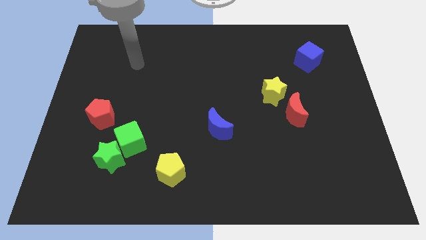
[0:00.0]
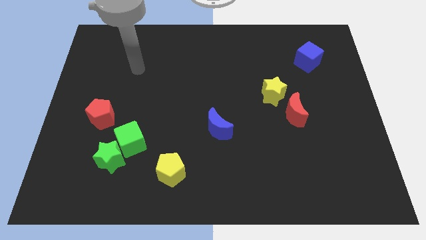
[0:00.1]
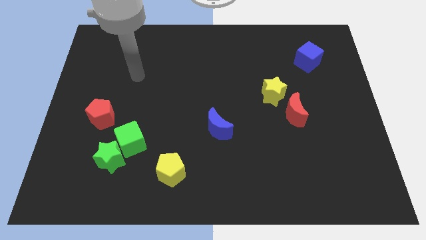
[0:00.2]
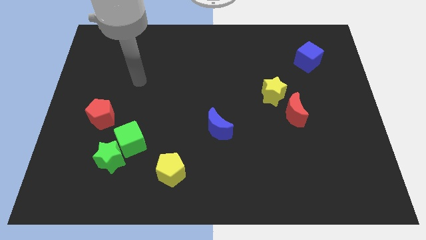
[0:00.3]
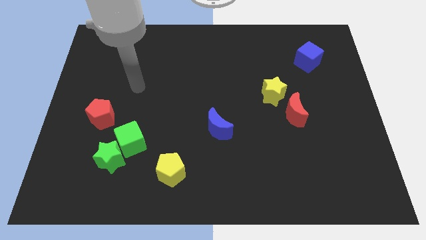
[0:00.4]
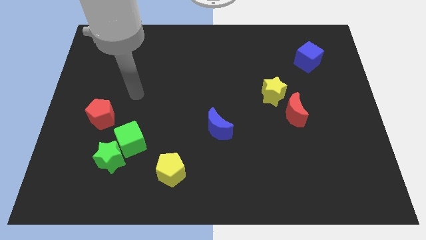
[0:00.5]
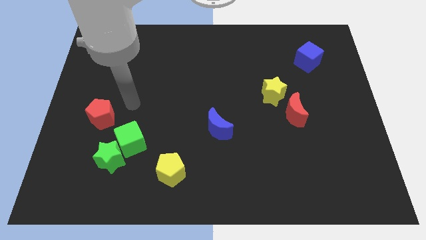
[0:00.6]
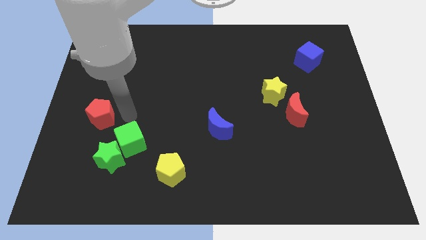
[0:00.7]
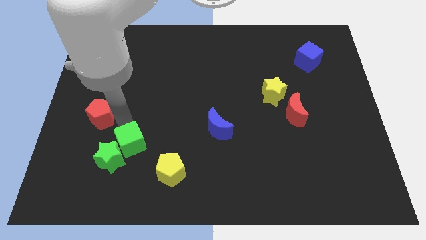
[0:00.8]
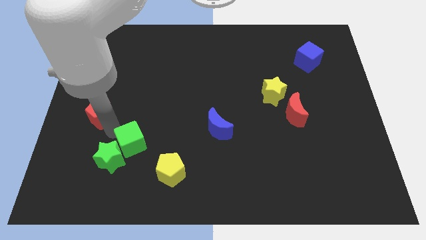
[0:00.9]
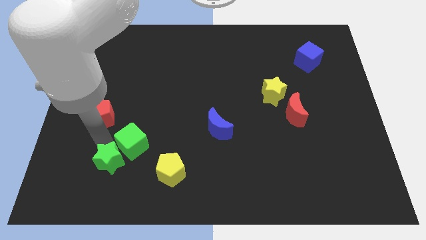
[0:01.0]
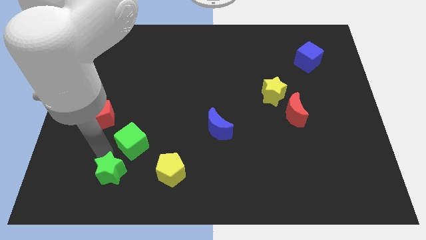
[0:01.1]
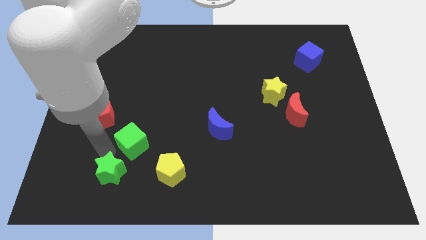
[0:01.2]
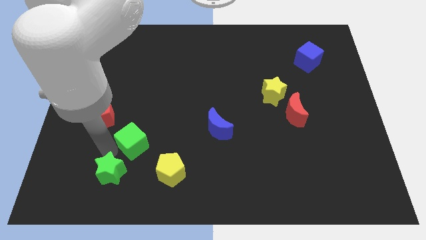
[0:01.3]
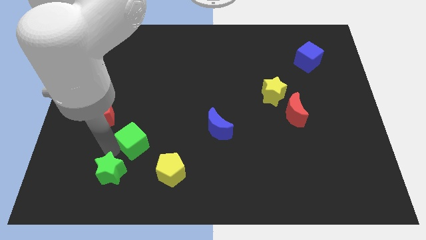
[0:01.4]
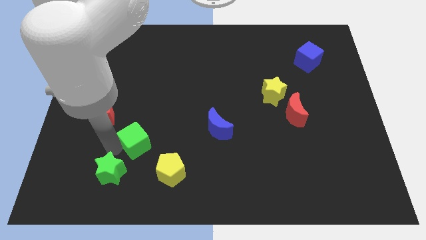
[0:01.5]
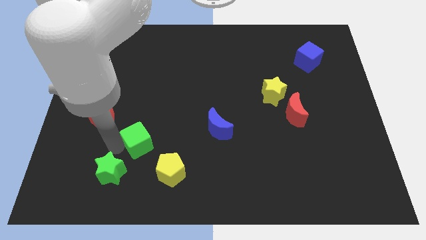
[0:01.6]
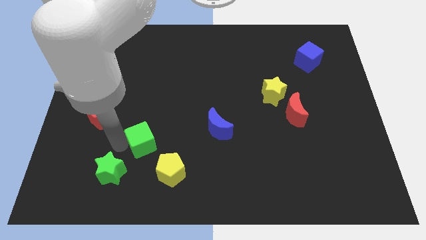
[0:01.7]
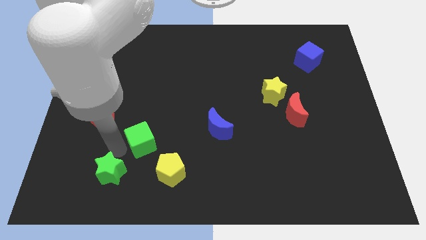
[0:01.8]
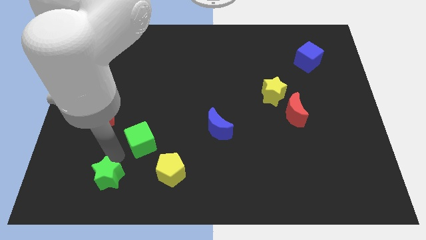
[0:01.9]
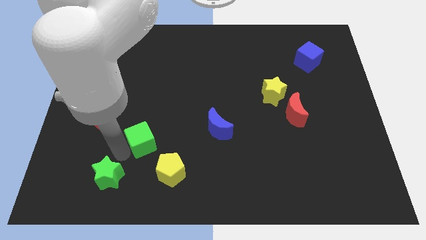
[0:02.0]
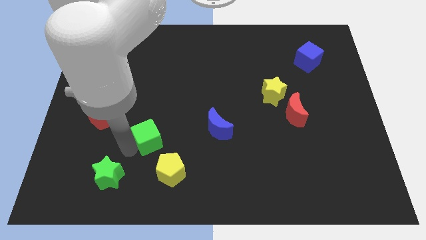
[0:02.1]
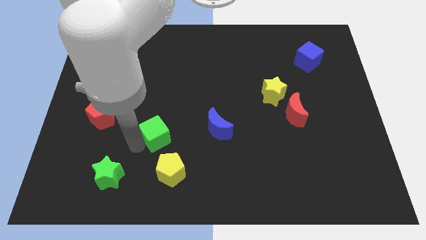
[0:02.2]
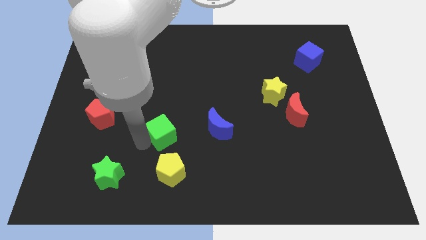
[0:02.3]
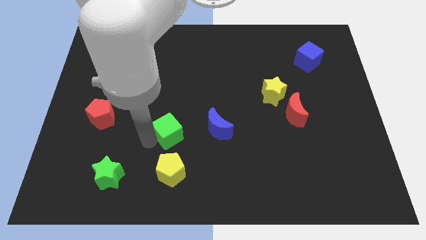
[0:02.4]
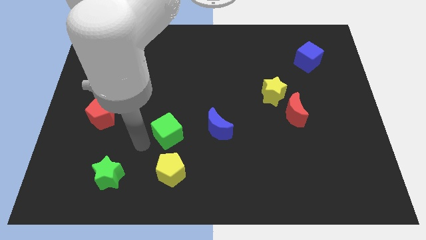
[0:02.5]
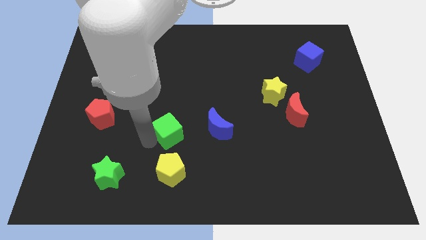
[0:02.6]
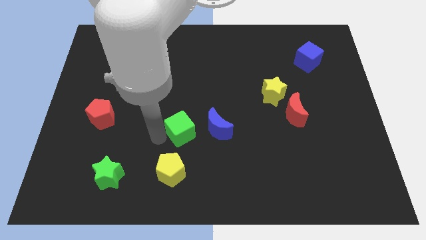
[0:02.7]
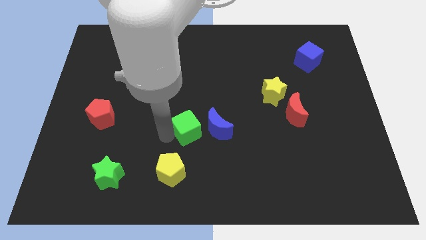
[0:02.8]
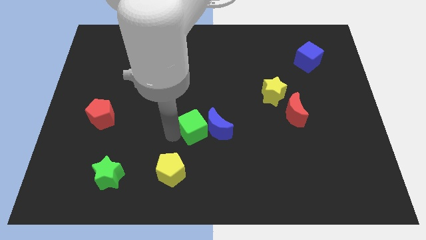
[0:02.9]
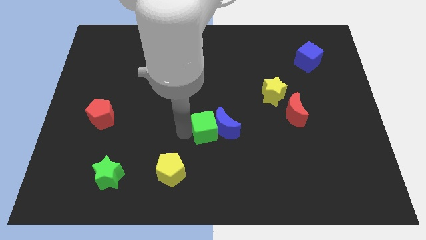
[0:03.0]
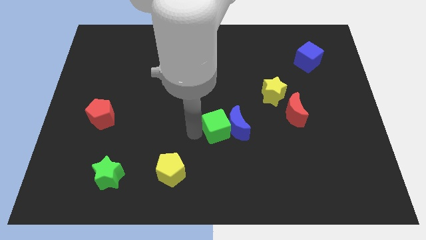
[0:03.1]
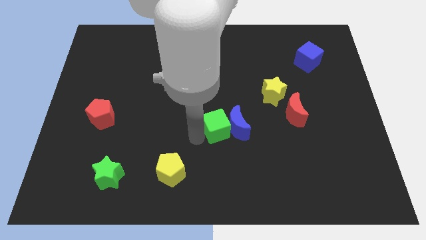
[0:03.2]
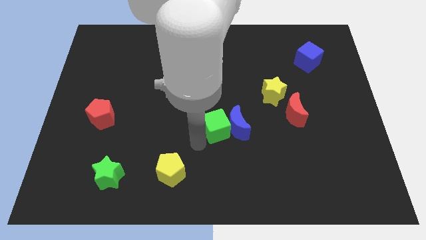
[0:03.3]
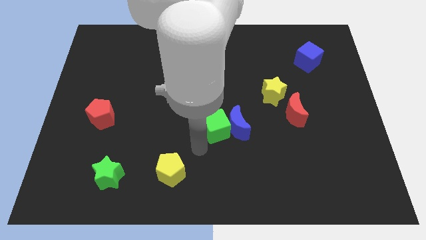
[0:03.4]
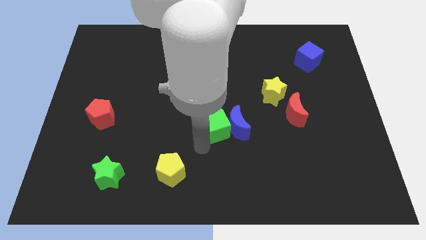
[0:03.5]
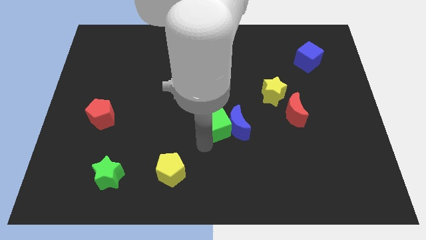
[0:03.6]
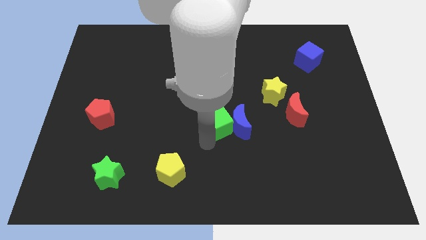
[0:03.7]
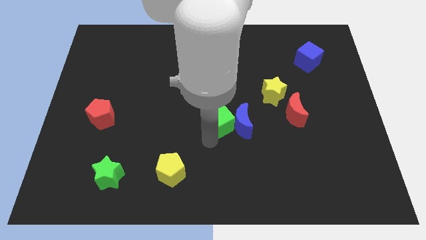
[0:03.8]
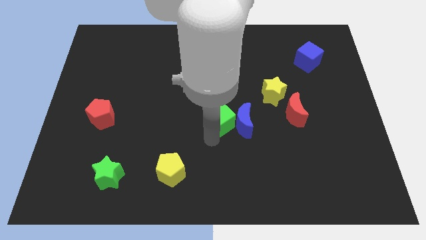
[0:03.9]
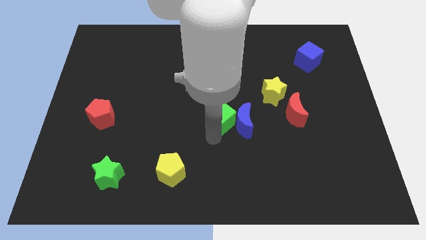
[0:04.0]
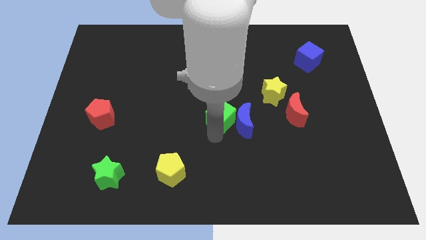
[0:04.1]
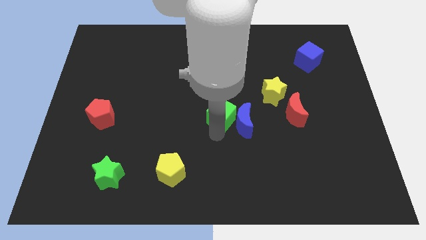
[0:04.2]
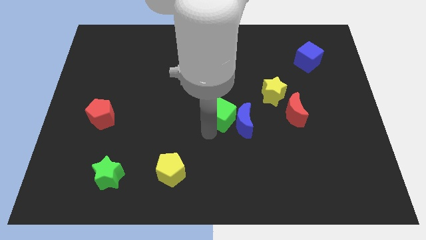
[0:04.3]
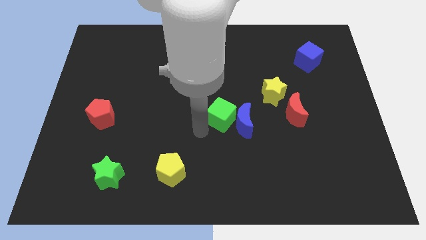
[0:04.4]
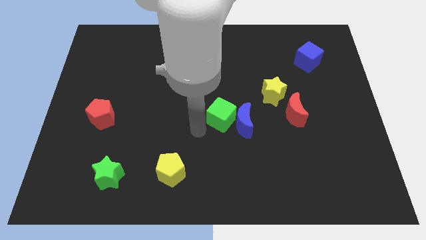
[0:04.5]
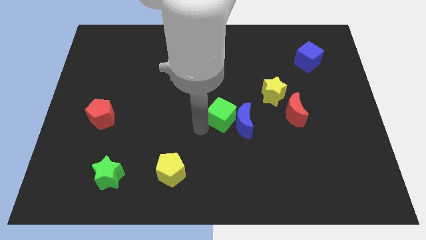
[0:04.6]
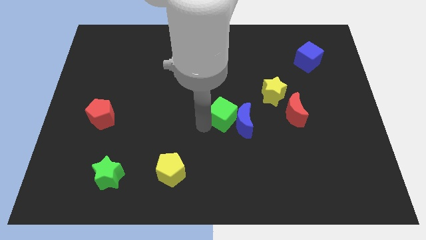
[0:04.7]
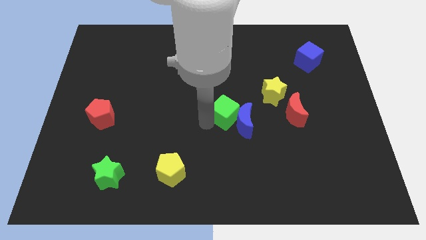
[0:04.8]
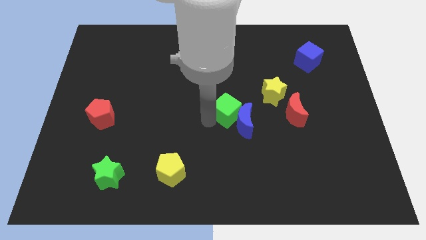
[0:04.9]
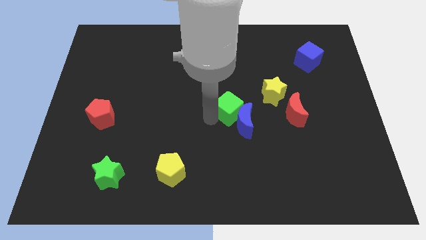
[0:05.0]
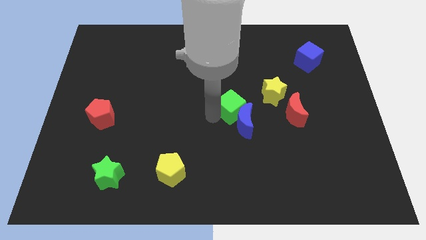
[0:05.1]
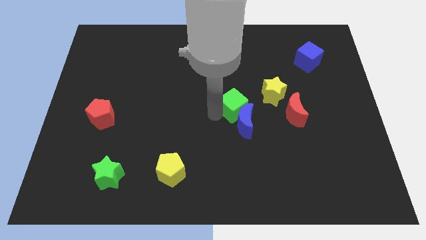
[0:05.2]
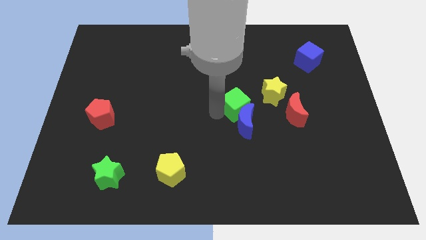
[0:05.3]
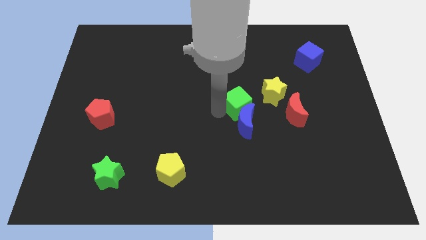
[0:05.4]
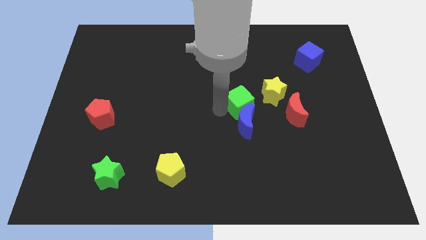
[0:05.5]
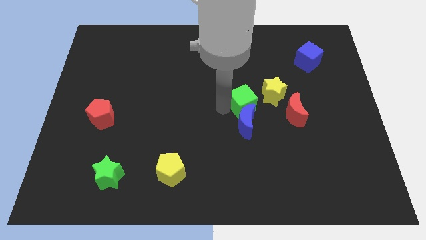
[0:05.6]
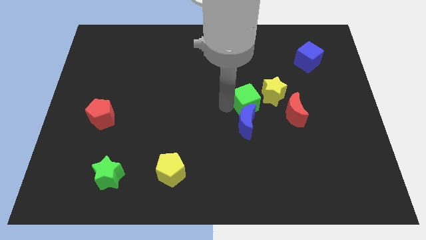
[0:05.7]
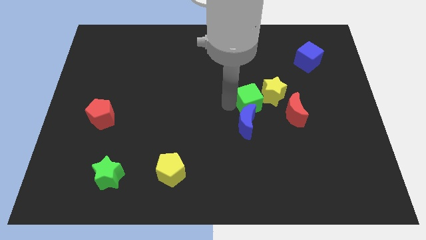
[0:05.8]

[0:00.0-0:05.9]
move the green cube to the yellow star

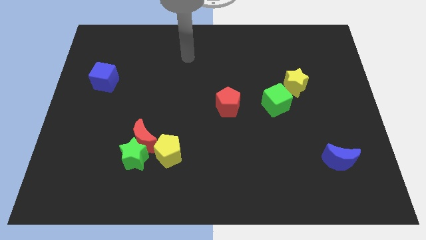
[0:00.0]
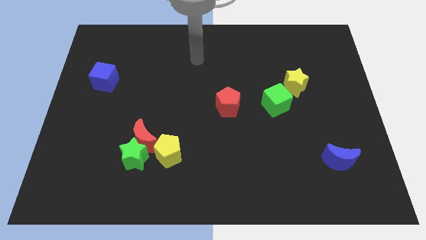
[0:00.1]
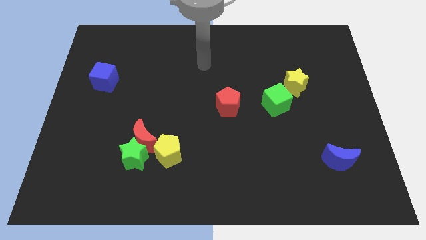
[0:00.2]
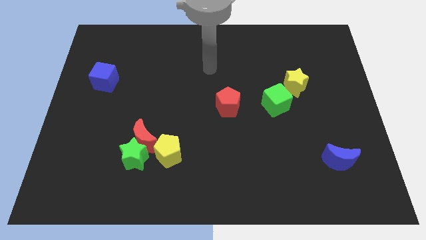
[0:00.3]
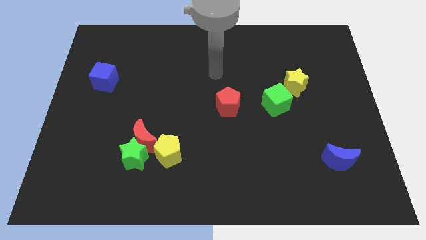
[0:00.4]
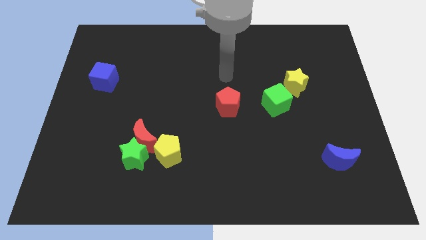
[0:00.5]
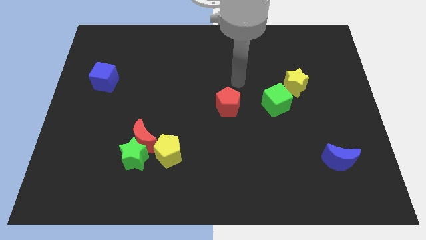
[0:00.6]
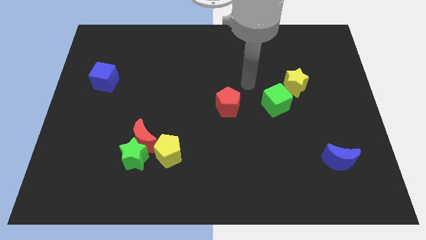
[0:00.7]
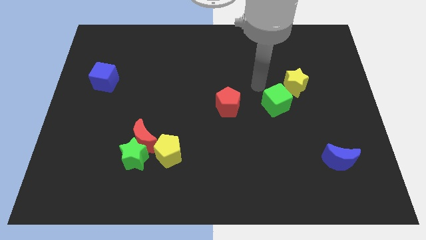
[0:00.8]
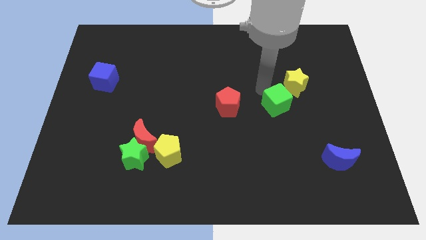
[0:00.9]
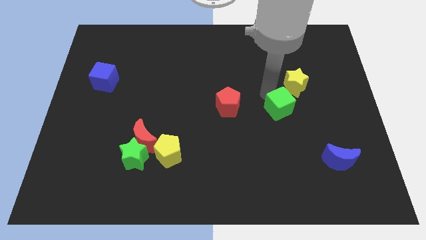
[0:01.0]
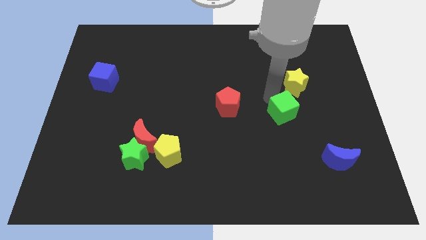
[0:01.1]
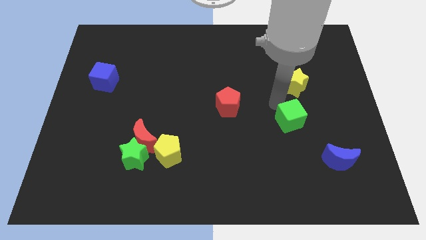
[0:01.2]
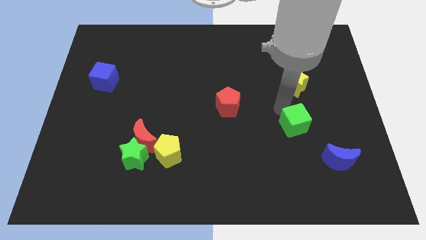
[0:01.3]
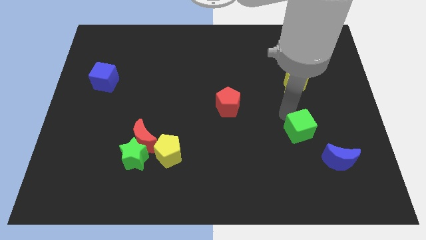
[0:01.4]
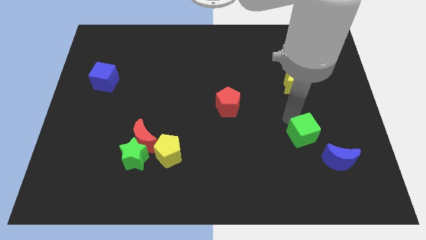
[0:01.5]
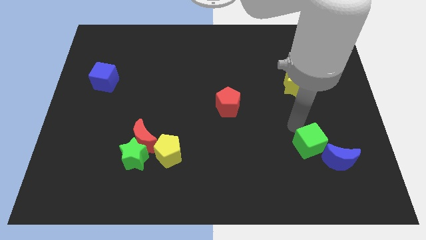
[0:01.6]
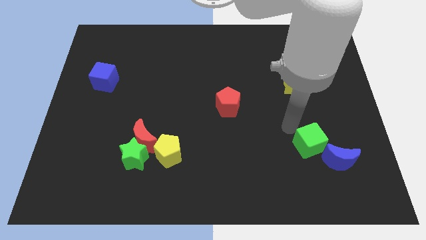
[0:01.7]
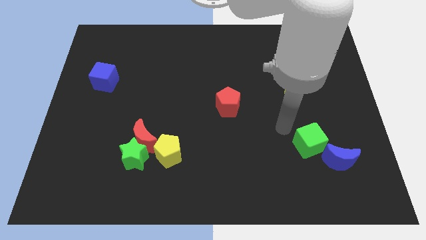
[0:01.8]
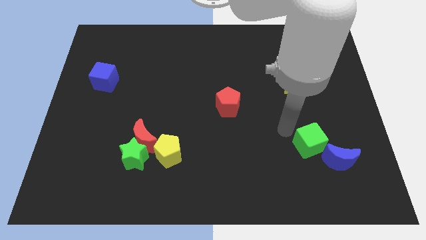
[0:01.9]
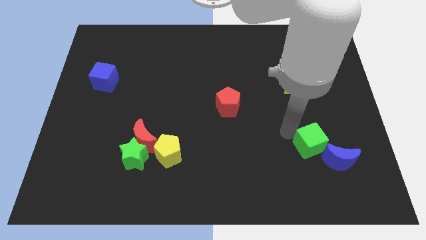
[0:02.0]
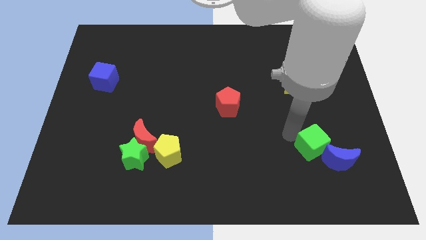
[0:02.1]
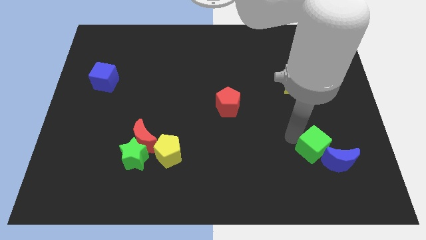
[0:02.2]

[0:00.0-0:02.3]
put the green cube next to the blue moon
